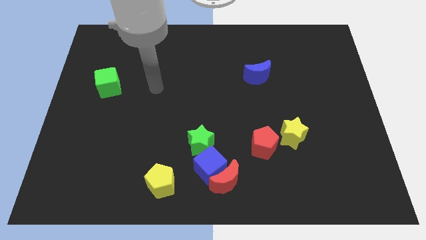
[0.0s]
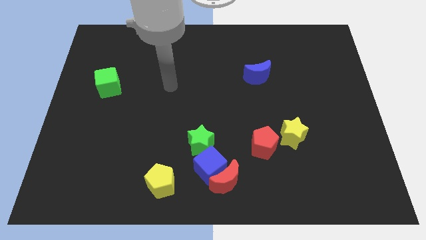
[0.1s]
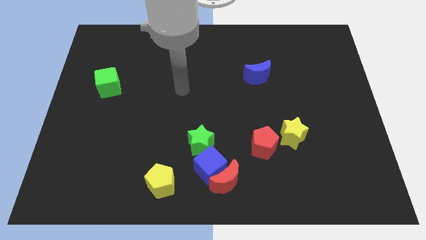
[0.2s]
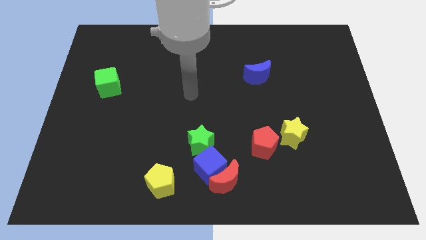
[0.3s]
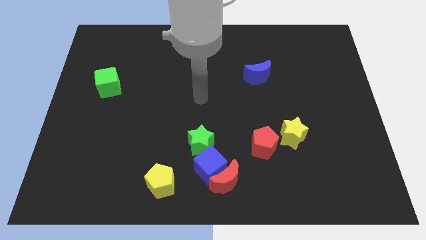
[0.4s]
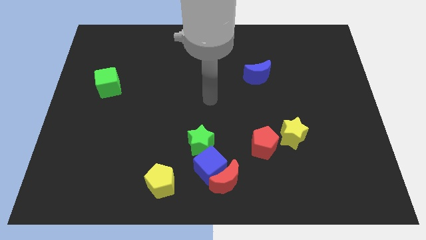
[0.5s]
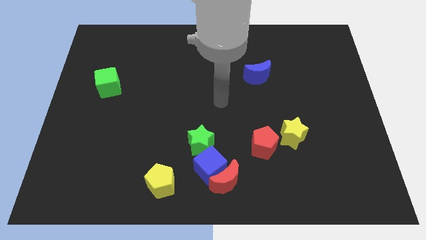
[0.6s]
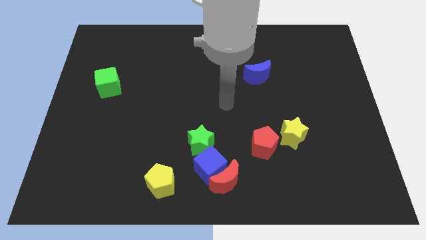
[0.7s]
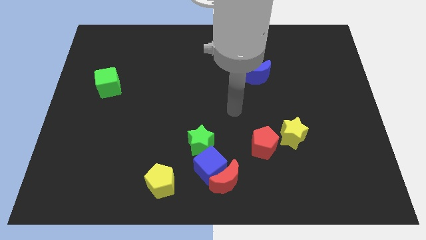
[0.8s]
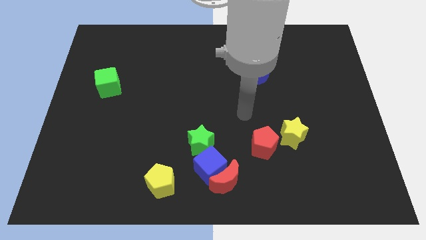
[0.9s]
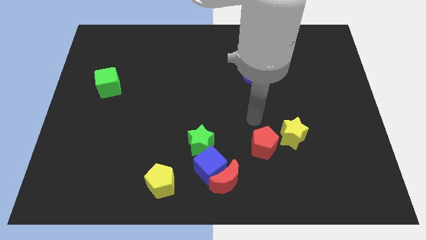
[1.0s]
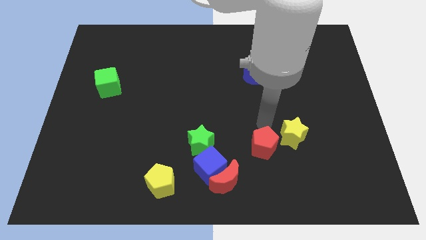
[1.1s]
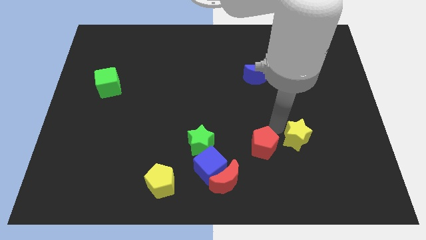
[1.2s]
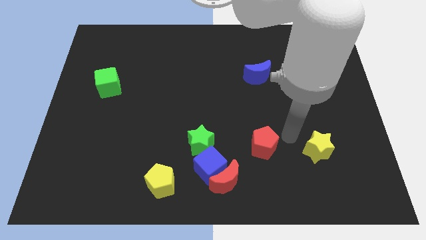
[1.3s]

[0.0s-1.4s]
separate the red pentagon from the yellow star

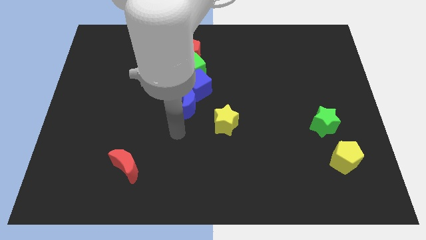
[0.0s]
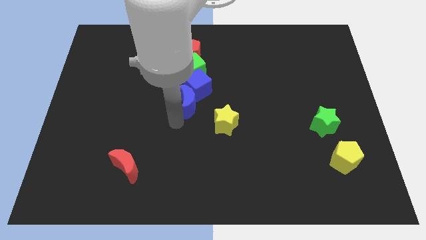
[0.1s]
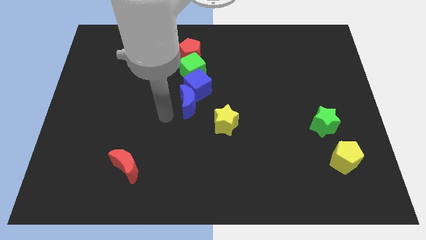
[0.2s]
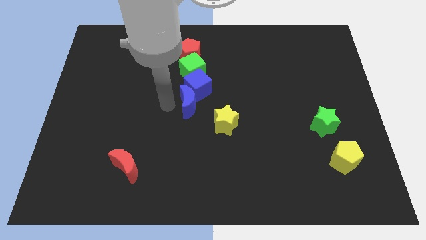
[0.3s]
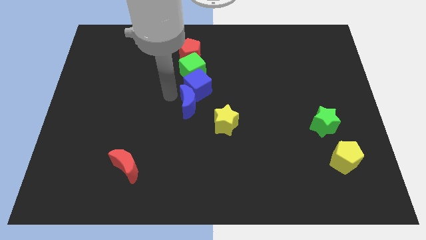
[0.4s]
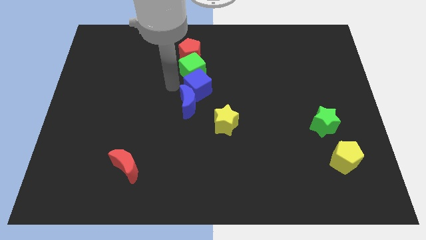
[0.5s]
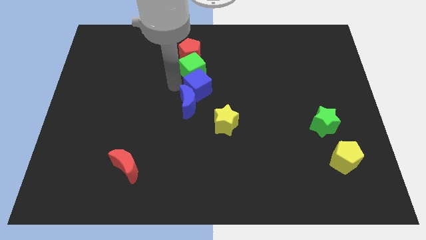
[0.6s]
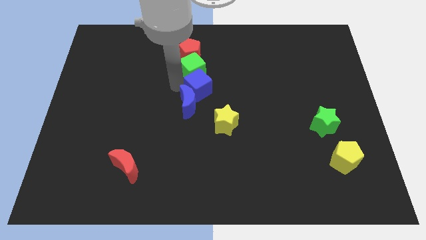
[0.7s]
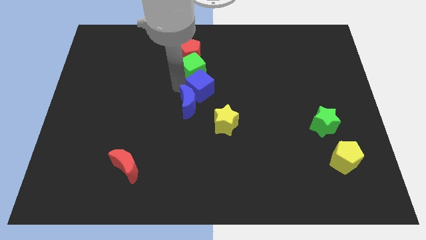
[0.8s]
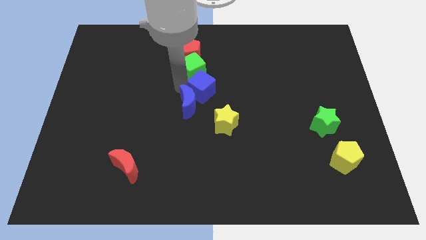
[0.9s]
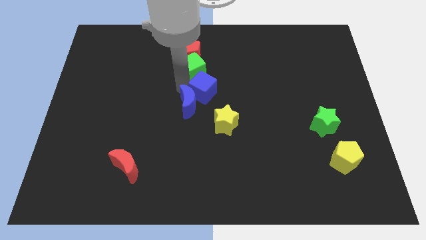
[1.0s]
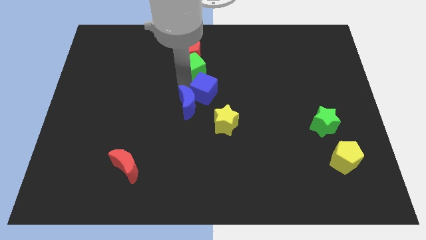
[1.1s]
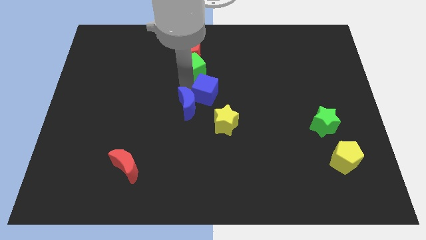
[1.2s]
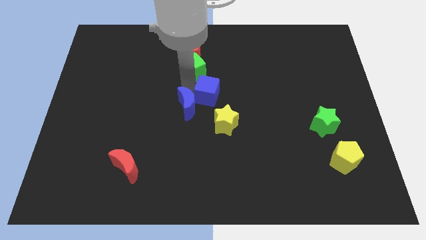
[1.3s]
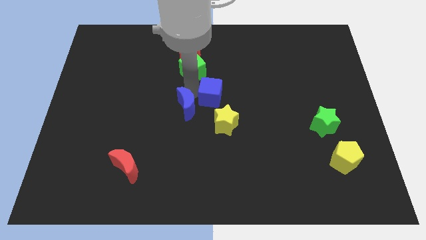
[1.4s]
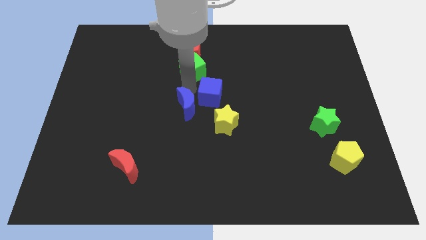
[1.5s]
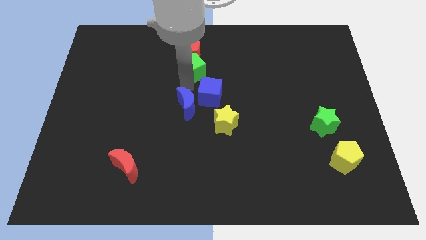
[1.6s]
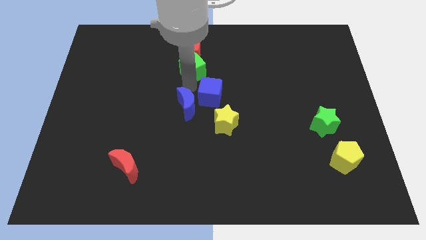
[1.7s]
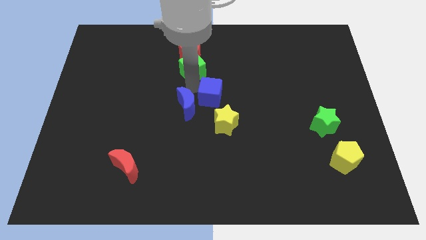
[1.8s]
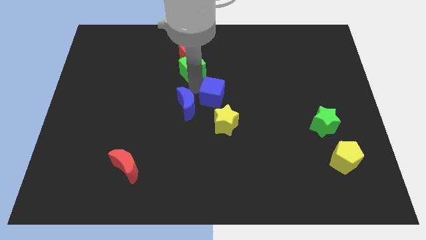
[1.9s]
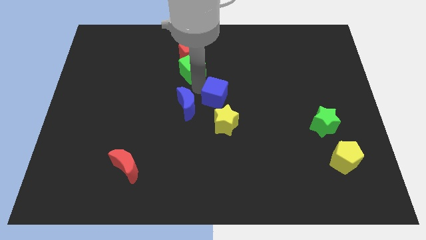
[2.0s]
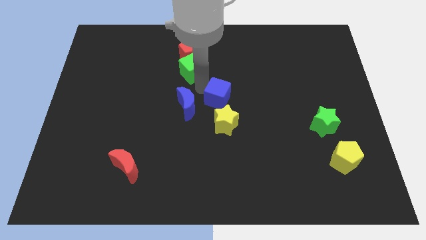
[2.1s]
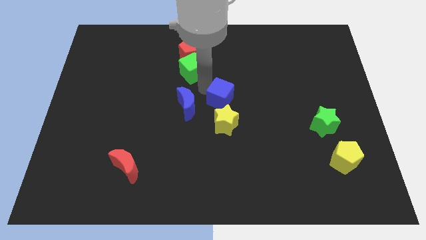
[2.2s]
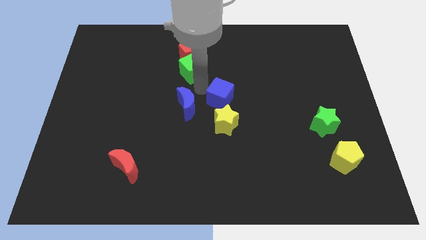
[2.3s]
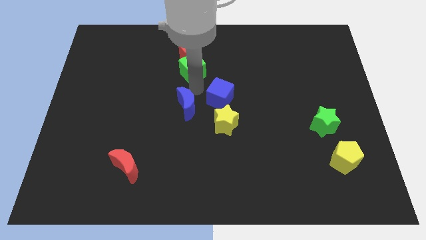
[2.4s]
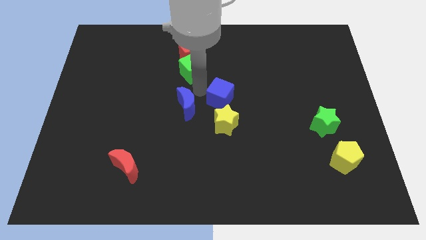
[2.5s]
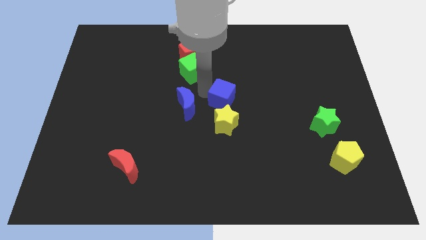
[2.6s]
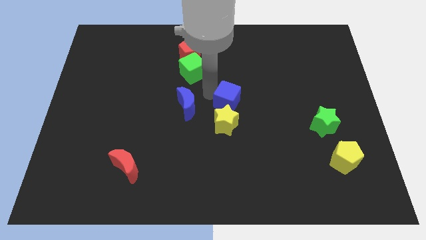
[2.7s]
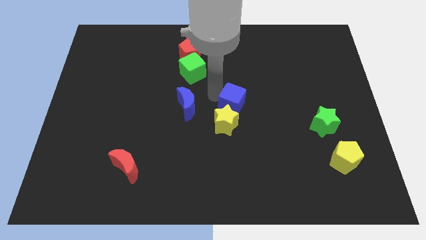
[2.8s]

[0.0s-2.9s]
pull the blue cube apart from the blue moon and green cube

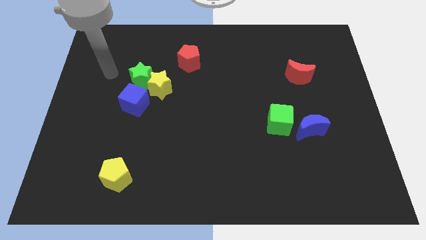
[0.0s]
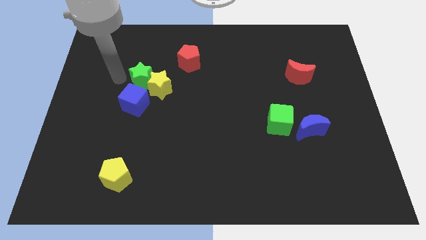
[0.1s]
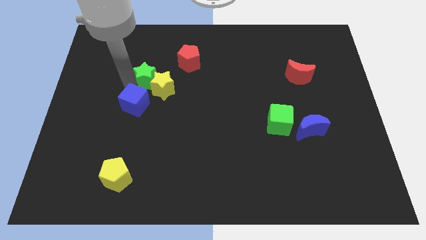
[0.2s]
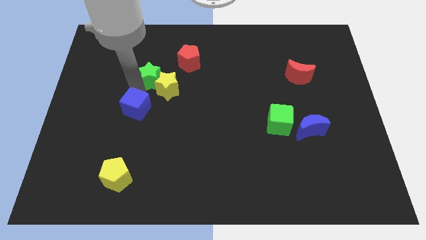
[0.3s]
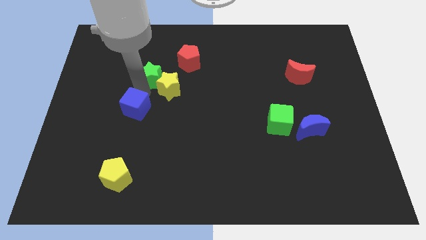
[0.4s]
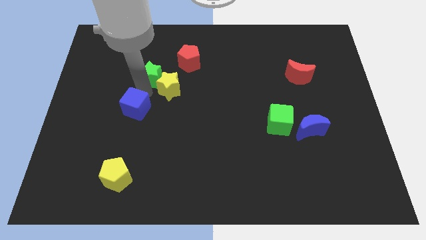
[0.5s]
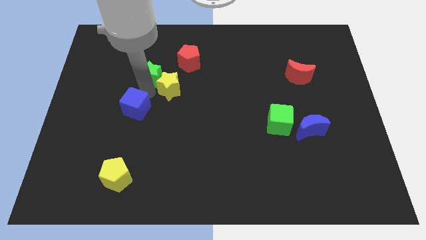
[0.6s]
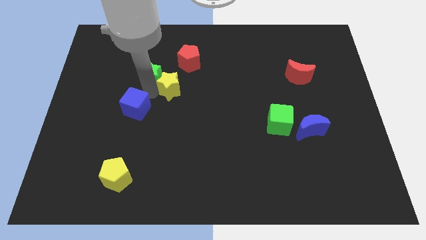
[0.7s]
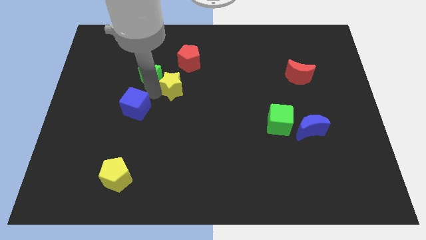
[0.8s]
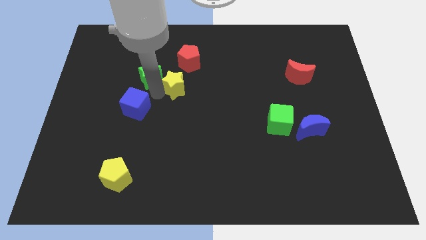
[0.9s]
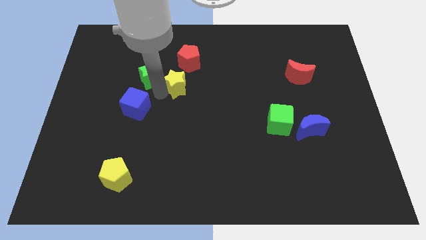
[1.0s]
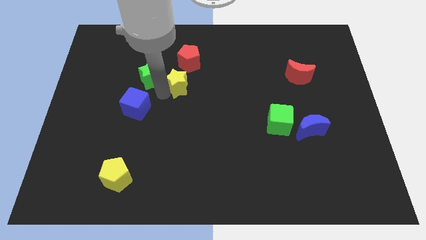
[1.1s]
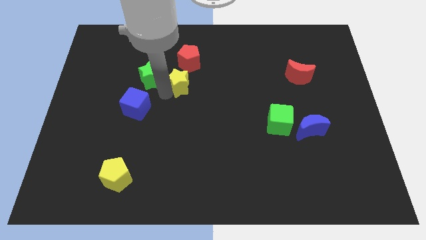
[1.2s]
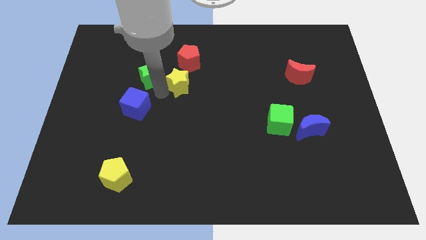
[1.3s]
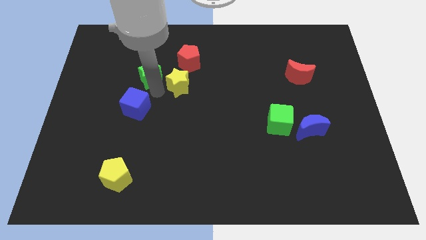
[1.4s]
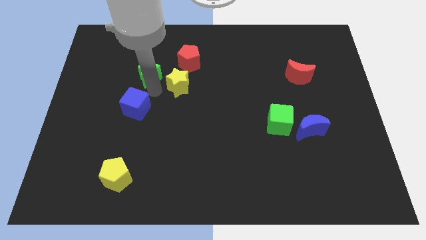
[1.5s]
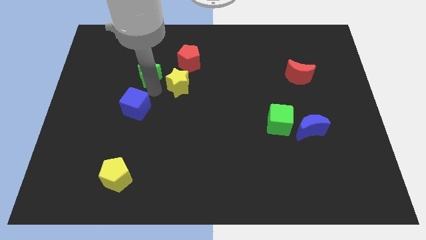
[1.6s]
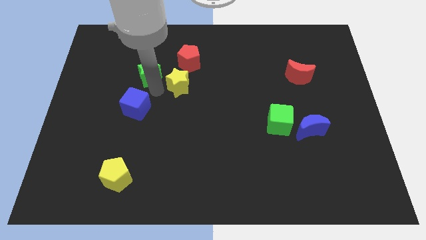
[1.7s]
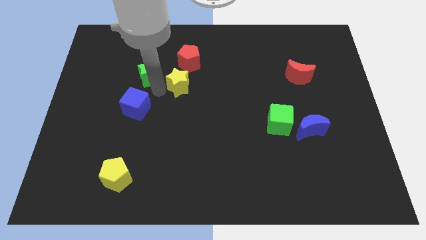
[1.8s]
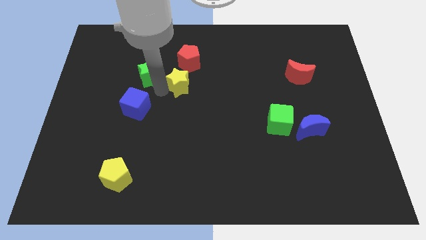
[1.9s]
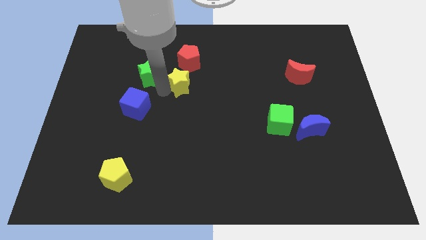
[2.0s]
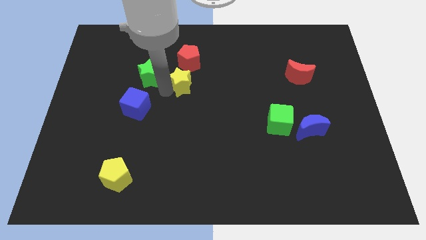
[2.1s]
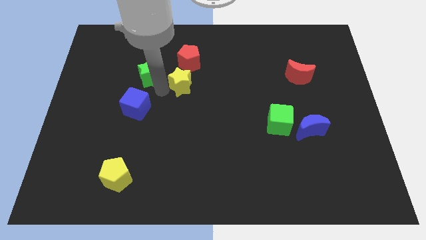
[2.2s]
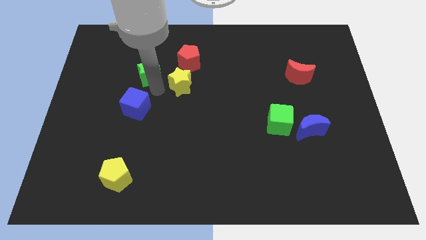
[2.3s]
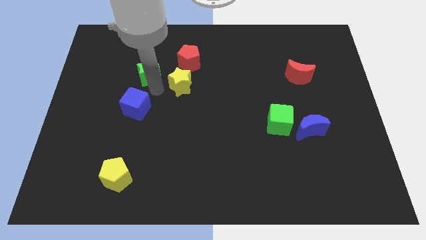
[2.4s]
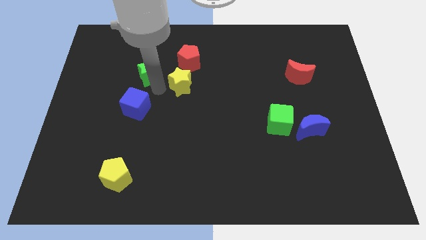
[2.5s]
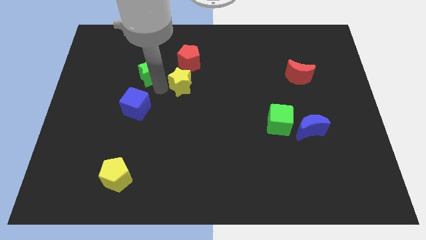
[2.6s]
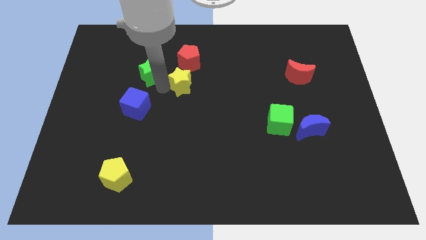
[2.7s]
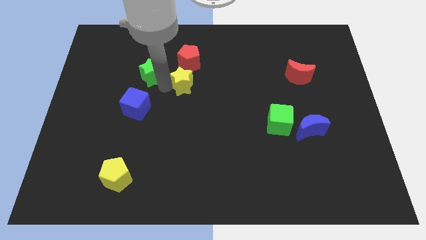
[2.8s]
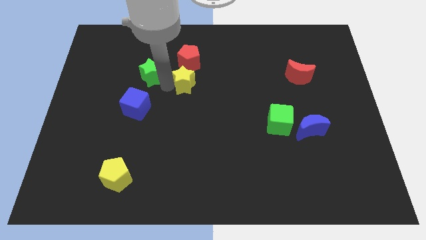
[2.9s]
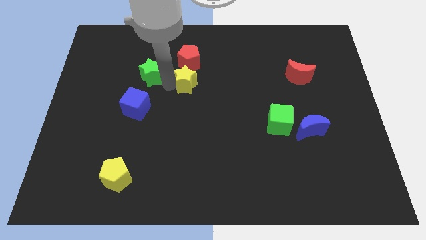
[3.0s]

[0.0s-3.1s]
separate the yellow star from the green star and blue cube

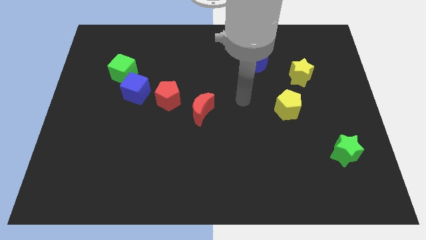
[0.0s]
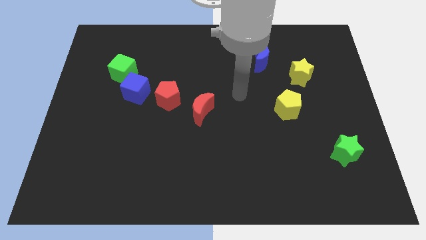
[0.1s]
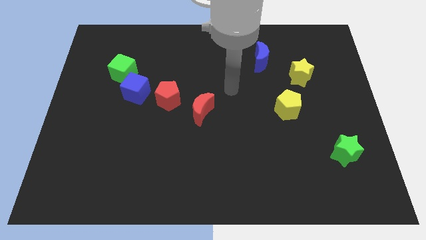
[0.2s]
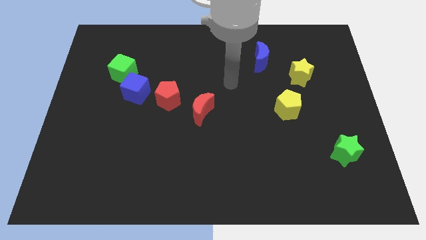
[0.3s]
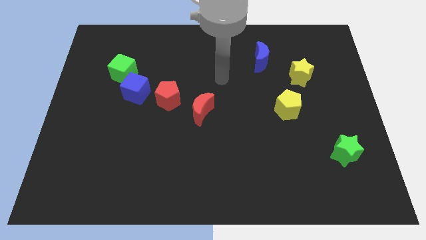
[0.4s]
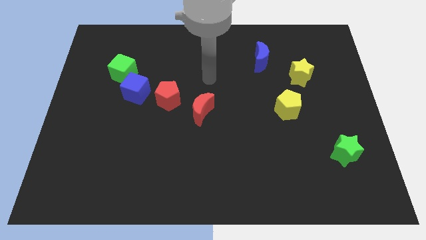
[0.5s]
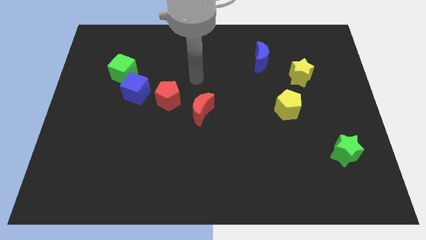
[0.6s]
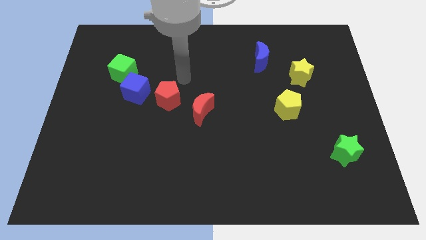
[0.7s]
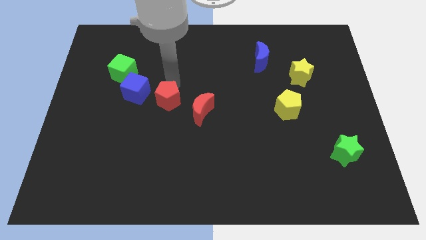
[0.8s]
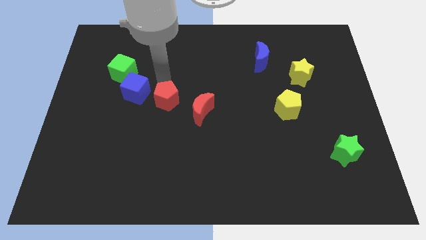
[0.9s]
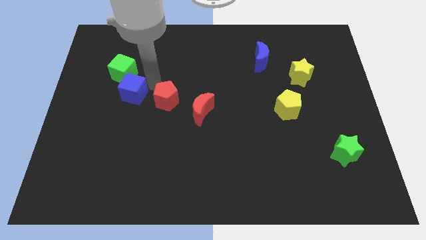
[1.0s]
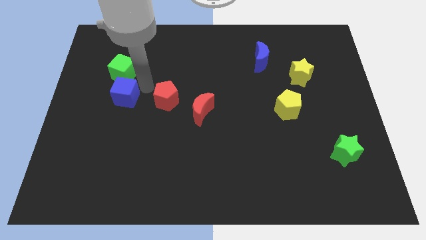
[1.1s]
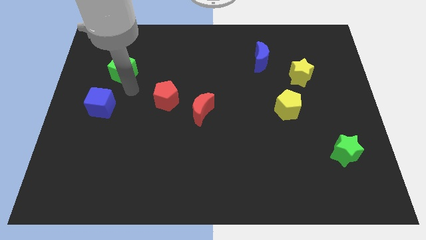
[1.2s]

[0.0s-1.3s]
separate the green cube from the blue cube

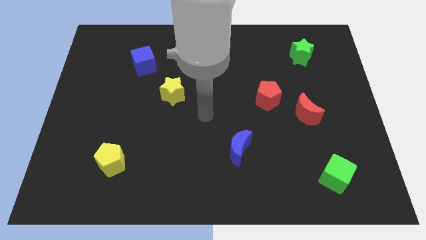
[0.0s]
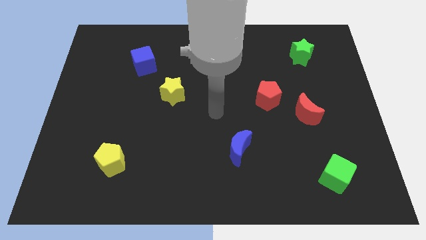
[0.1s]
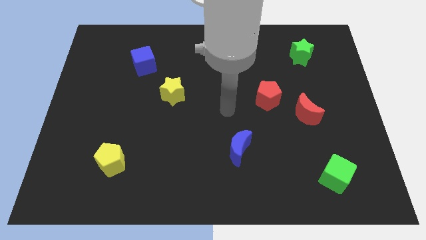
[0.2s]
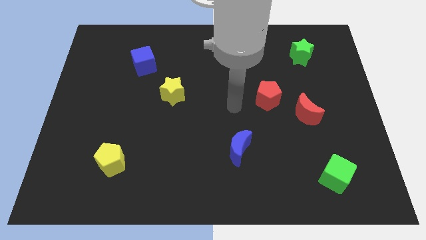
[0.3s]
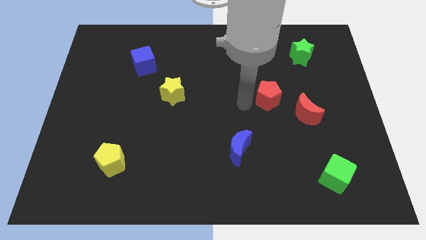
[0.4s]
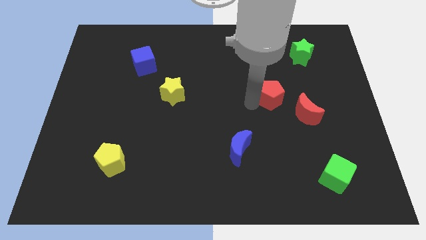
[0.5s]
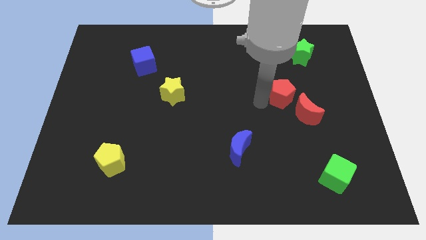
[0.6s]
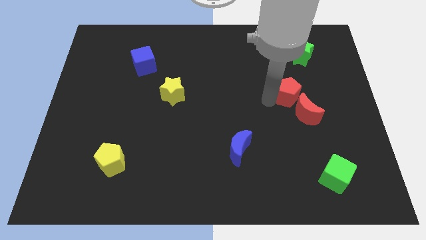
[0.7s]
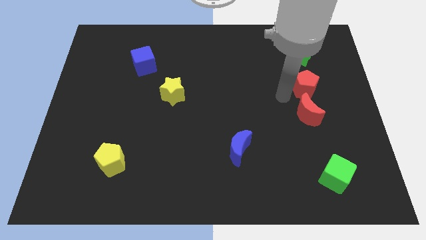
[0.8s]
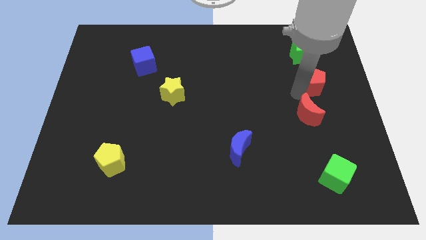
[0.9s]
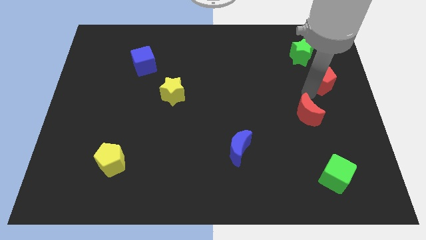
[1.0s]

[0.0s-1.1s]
pull the red moon apart from the red pentagon
